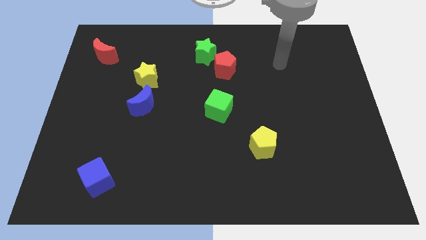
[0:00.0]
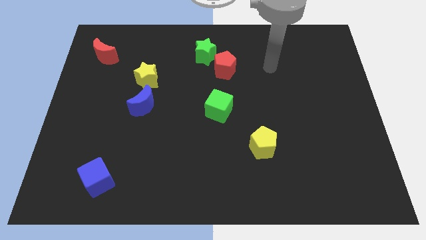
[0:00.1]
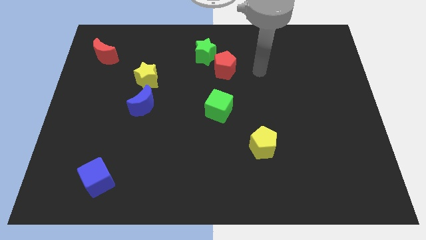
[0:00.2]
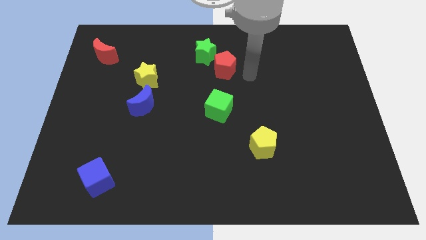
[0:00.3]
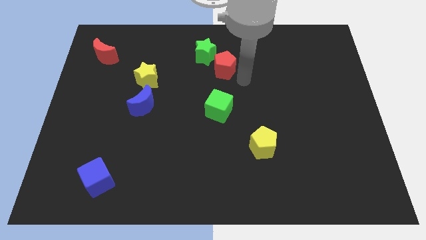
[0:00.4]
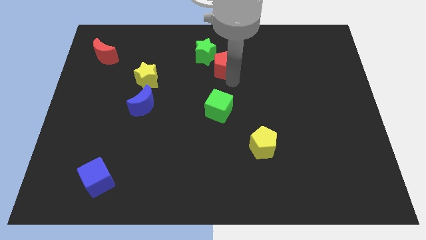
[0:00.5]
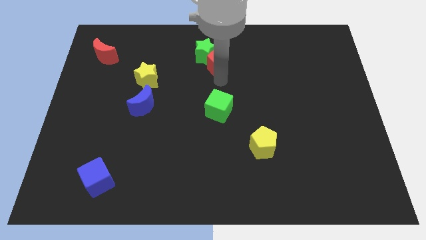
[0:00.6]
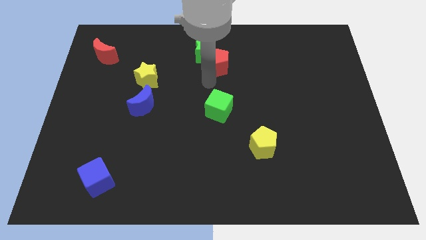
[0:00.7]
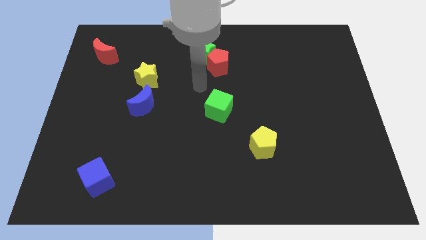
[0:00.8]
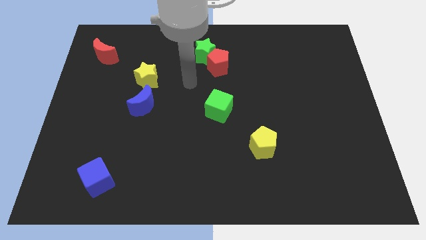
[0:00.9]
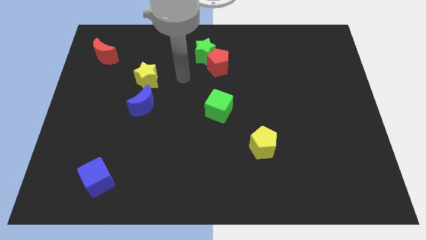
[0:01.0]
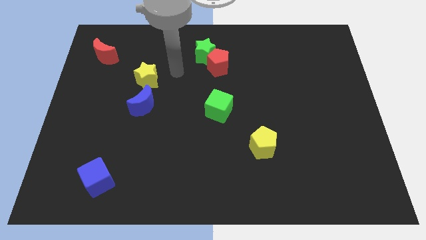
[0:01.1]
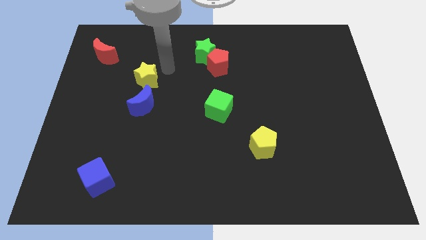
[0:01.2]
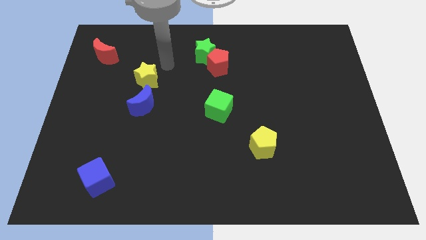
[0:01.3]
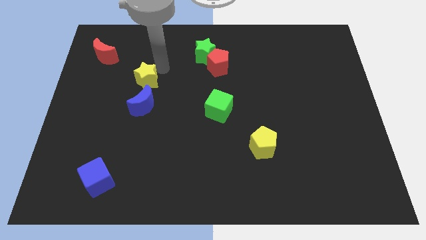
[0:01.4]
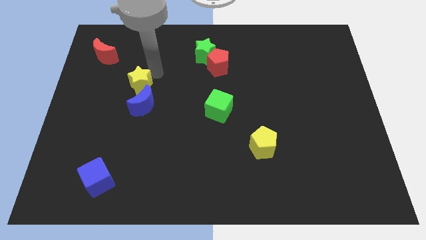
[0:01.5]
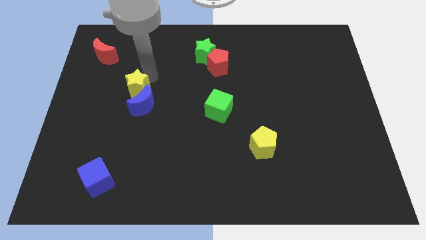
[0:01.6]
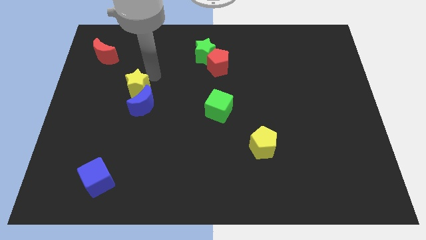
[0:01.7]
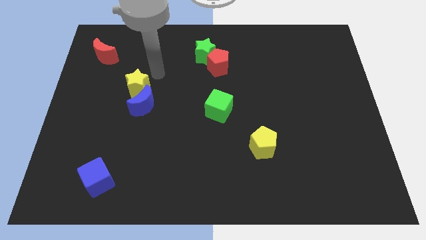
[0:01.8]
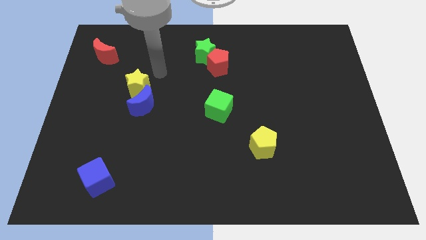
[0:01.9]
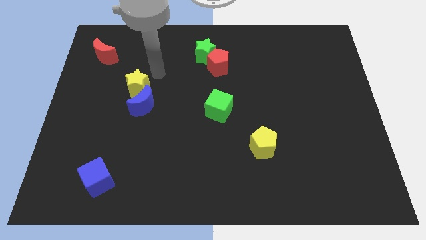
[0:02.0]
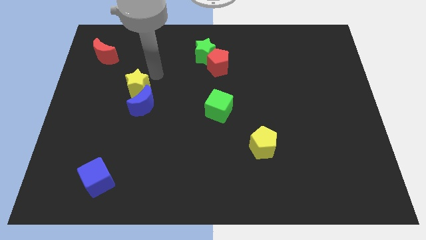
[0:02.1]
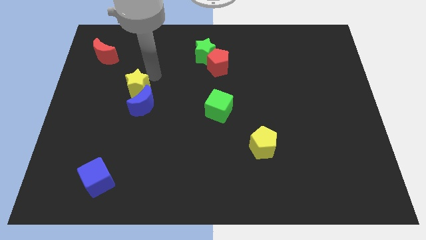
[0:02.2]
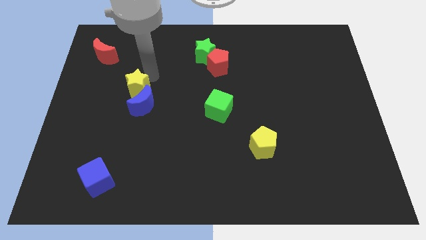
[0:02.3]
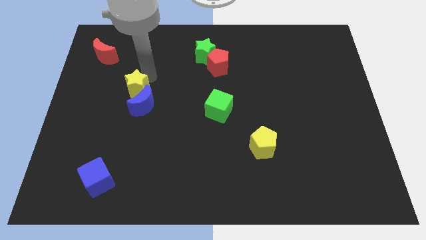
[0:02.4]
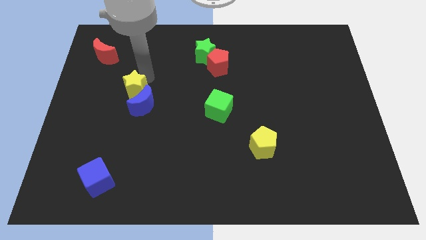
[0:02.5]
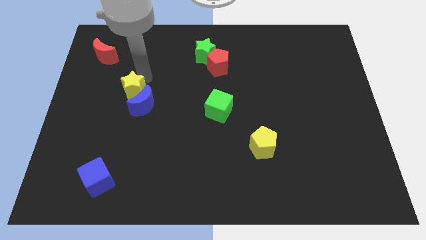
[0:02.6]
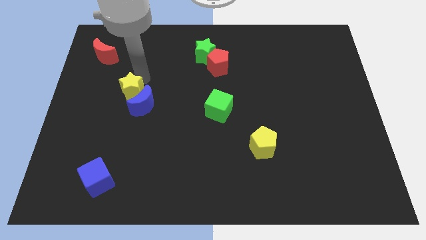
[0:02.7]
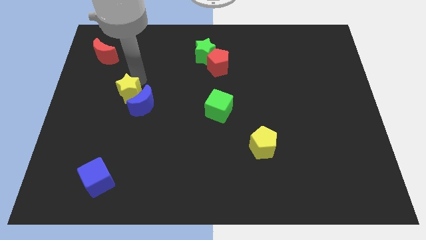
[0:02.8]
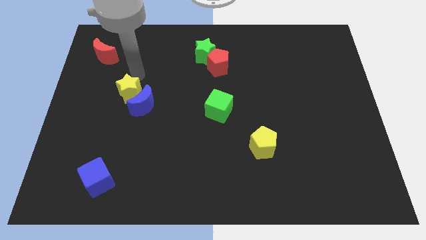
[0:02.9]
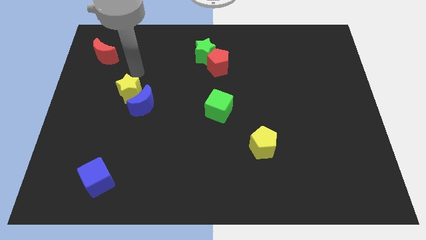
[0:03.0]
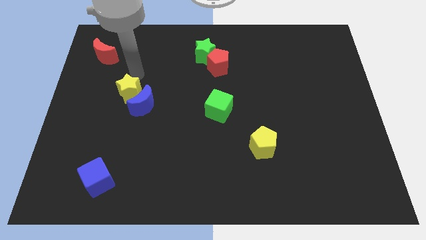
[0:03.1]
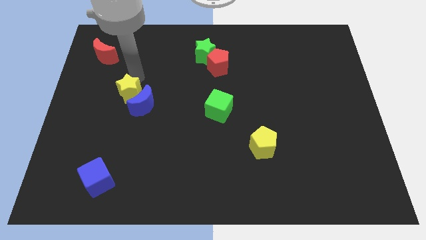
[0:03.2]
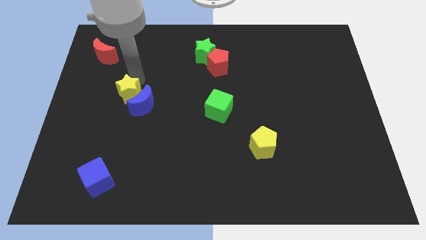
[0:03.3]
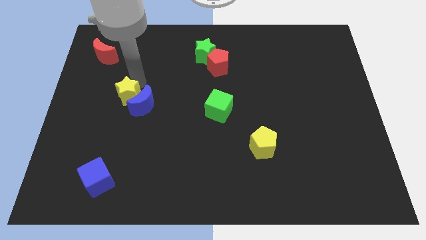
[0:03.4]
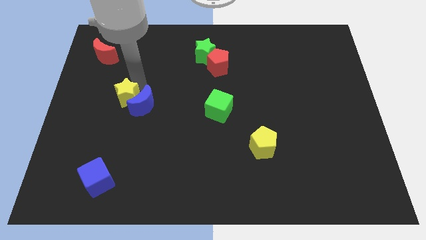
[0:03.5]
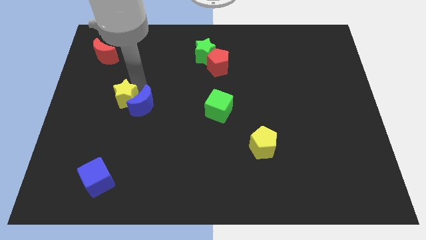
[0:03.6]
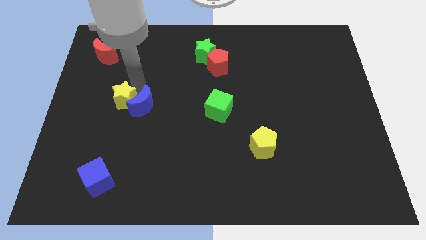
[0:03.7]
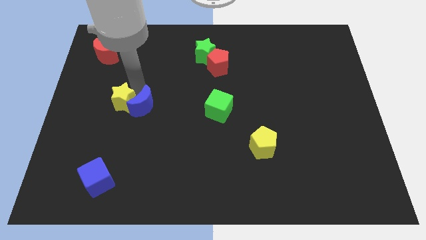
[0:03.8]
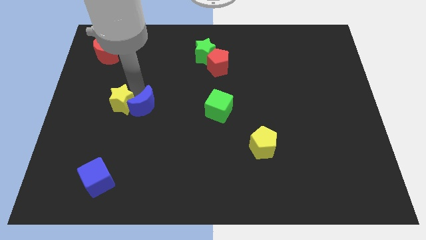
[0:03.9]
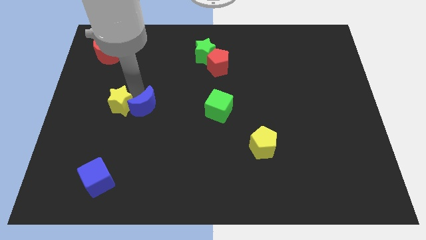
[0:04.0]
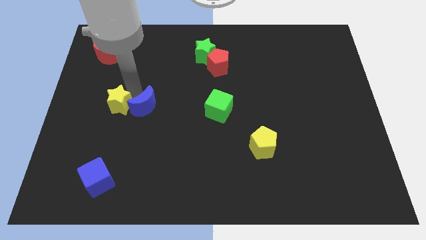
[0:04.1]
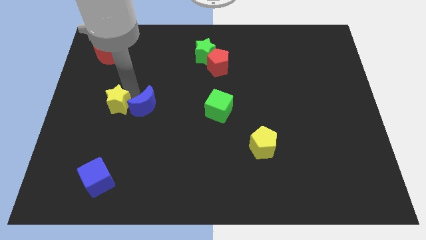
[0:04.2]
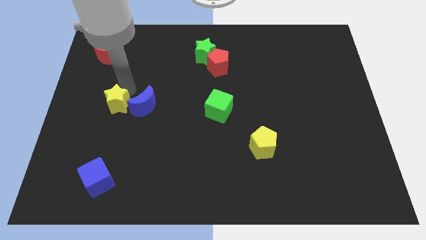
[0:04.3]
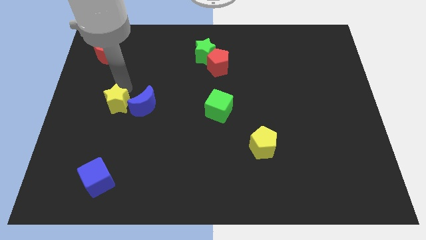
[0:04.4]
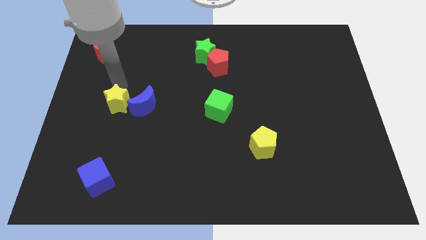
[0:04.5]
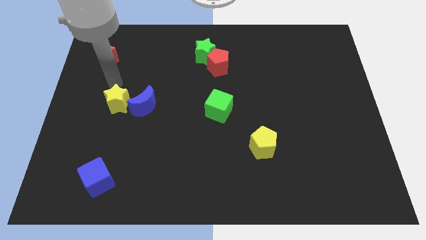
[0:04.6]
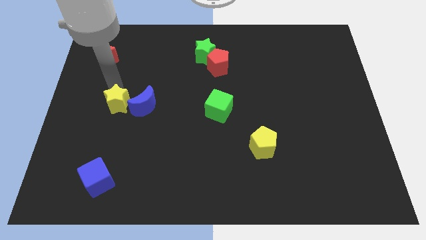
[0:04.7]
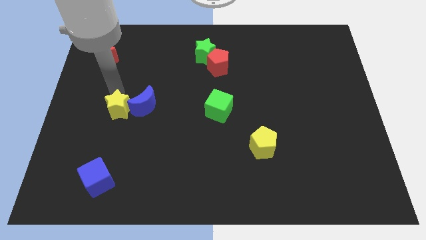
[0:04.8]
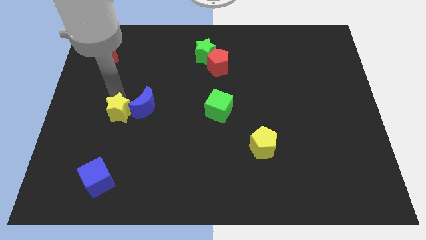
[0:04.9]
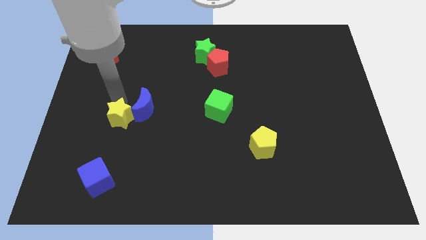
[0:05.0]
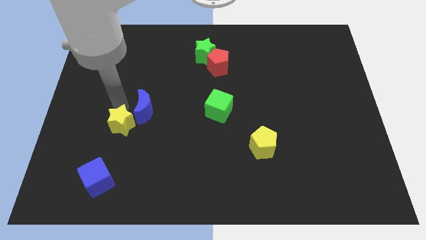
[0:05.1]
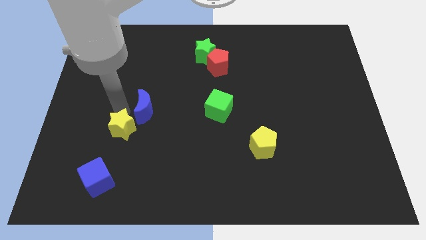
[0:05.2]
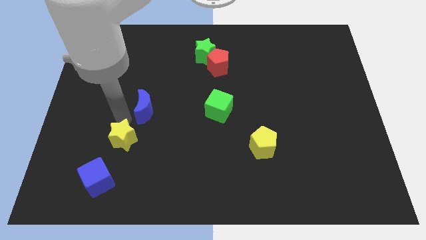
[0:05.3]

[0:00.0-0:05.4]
move the yellow star to the top right side of the blue cube

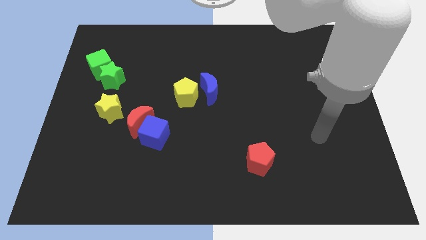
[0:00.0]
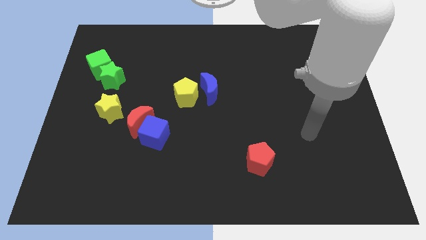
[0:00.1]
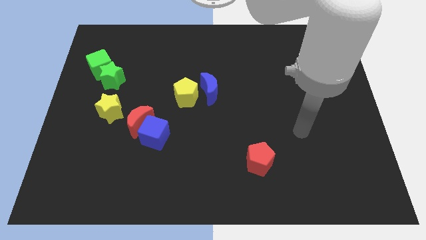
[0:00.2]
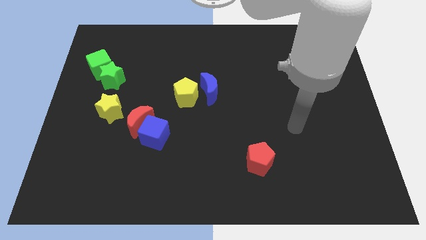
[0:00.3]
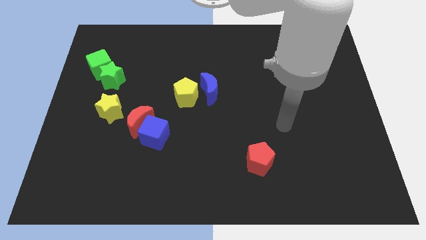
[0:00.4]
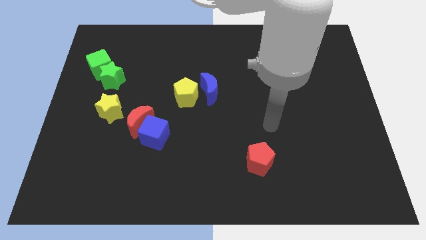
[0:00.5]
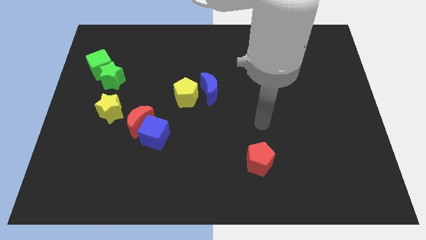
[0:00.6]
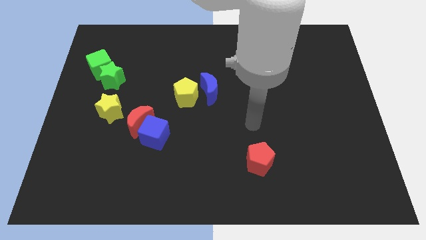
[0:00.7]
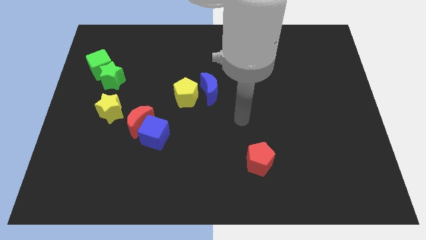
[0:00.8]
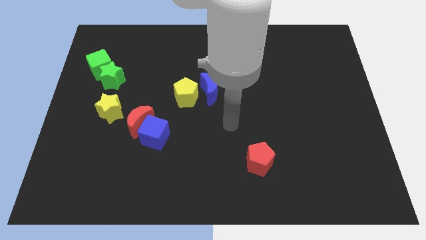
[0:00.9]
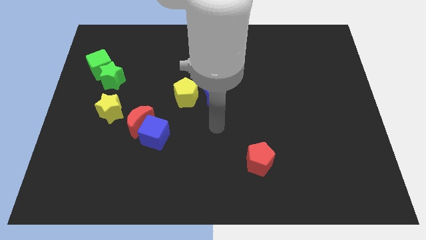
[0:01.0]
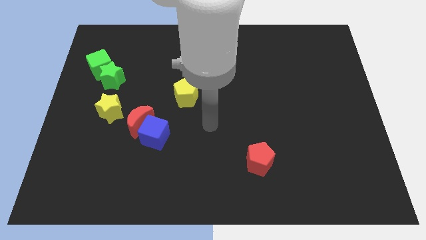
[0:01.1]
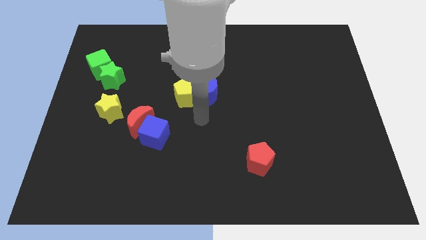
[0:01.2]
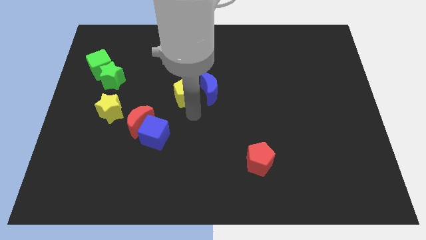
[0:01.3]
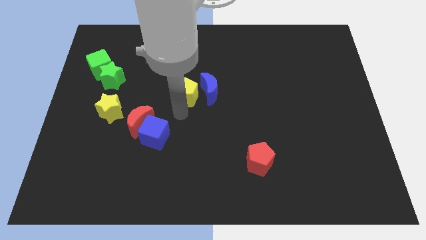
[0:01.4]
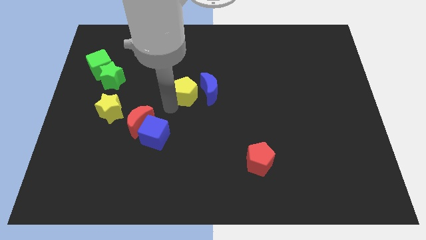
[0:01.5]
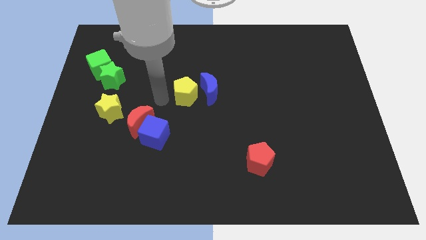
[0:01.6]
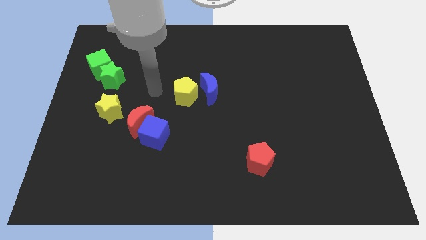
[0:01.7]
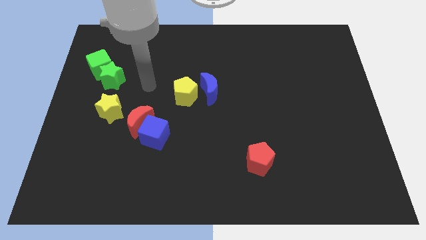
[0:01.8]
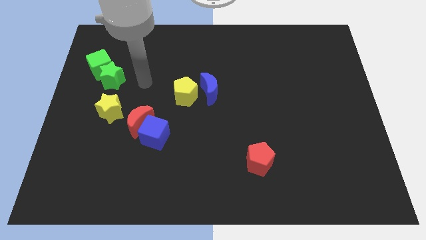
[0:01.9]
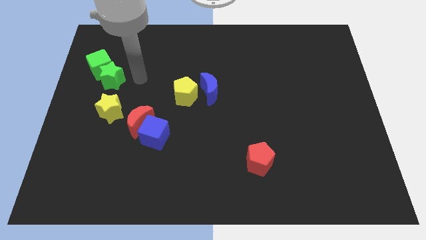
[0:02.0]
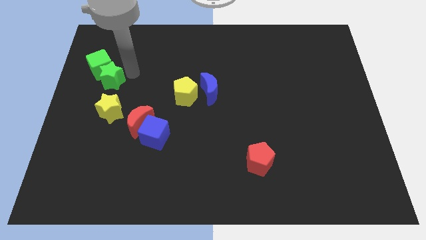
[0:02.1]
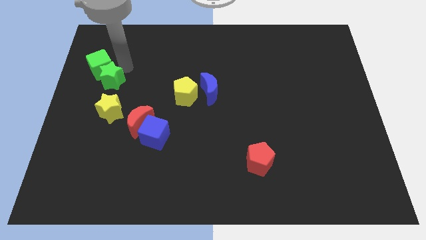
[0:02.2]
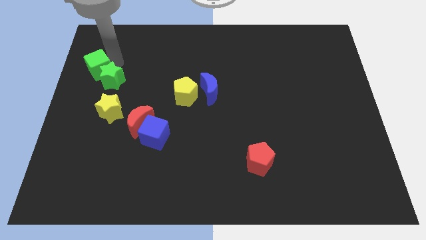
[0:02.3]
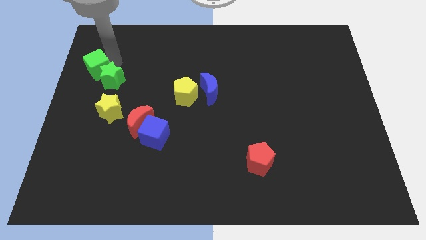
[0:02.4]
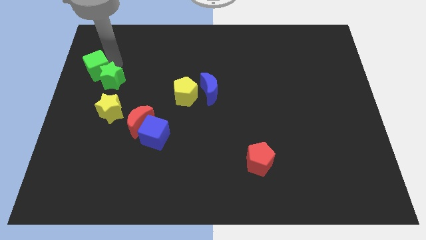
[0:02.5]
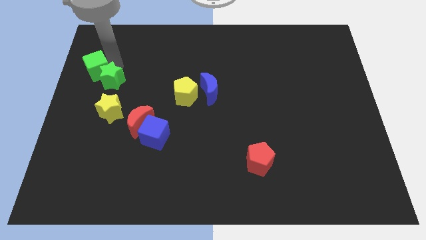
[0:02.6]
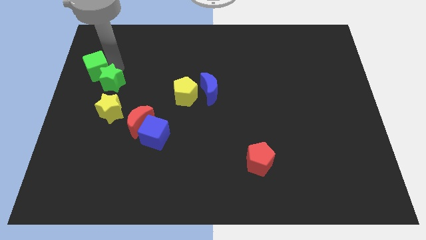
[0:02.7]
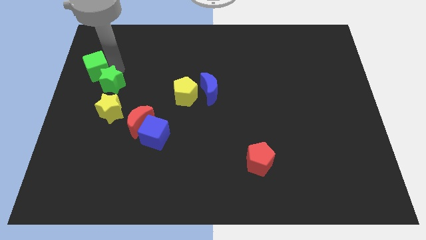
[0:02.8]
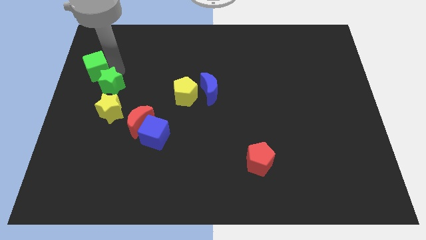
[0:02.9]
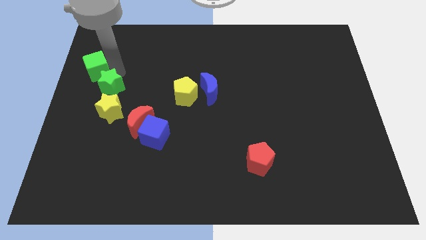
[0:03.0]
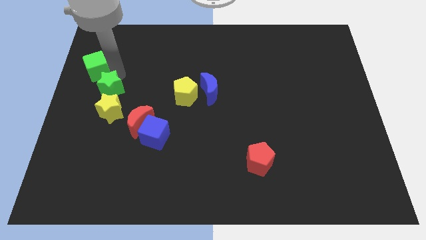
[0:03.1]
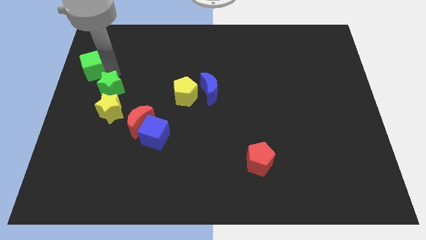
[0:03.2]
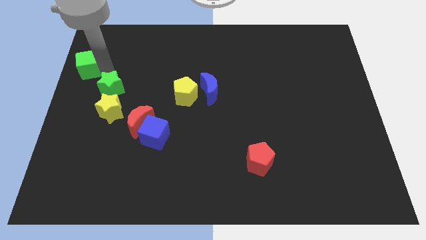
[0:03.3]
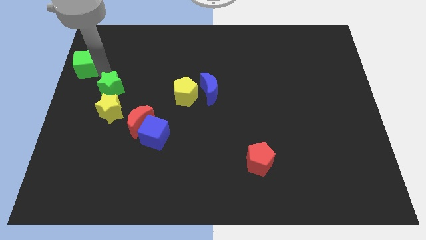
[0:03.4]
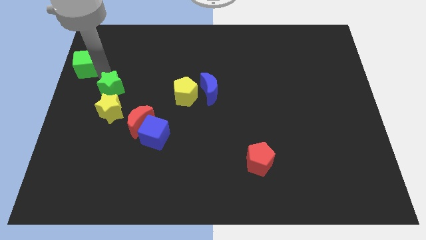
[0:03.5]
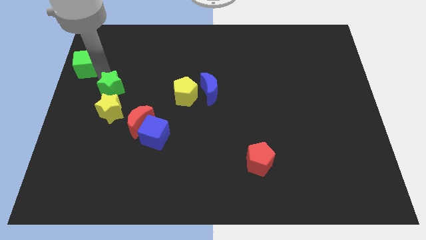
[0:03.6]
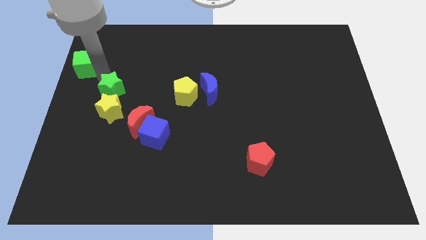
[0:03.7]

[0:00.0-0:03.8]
put the green star to the top left of the red moon
